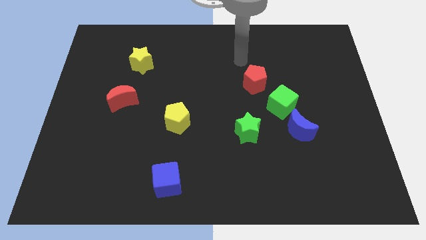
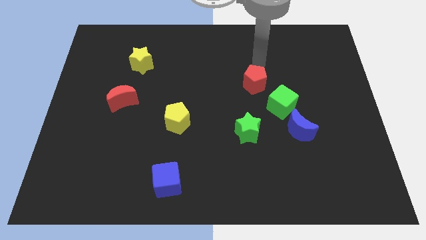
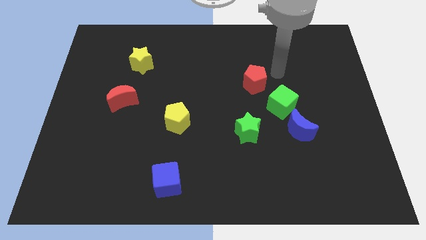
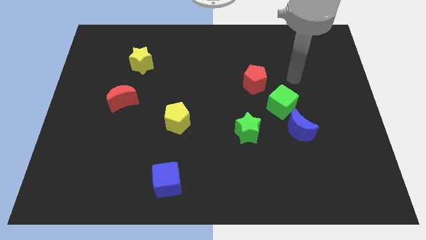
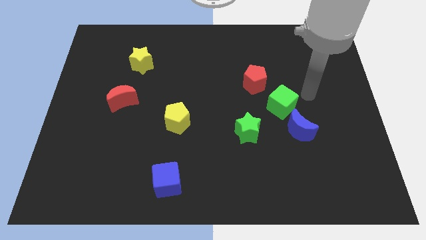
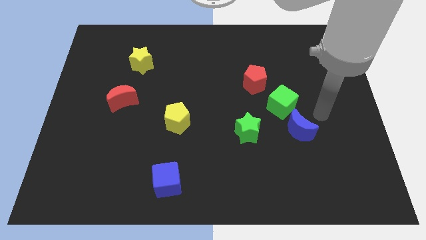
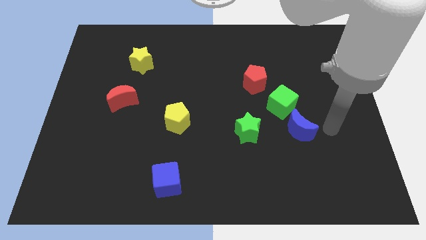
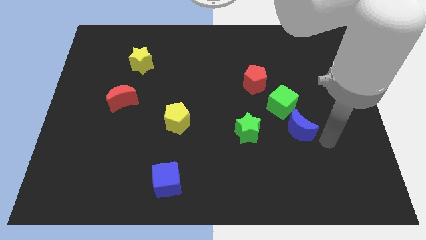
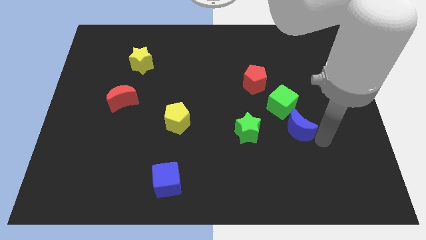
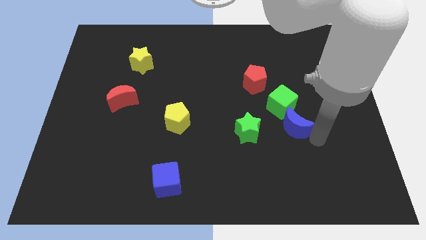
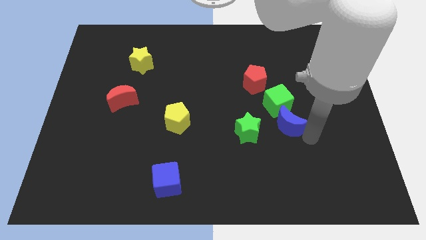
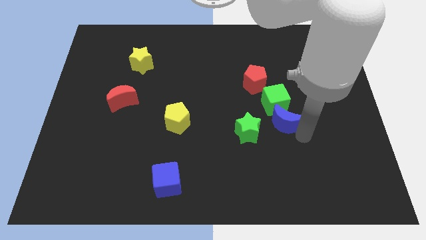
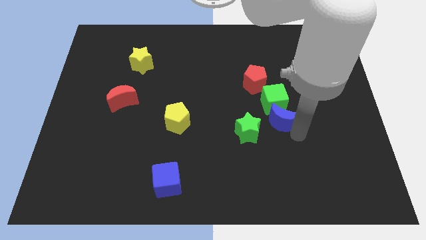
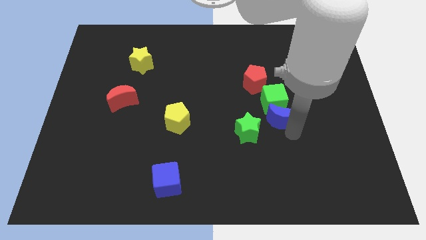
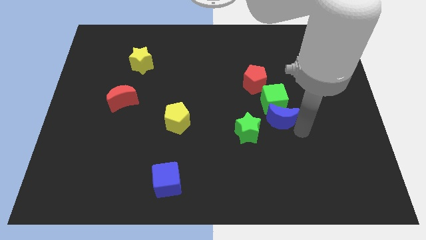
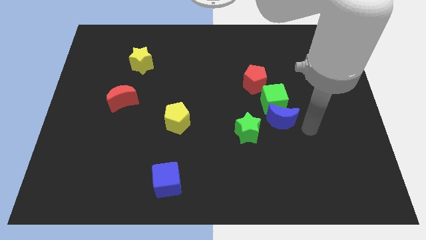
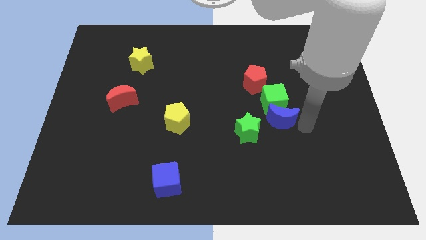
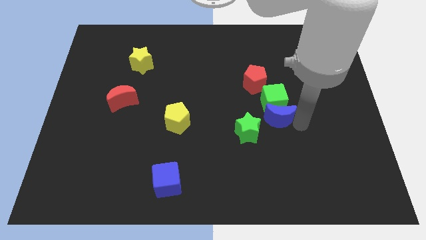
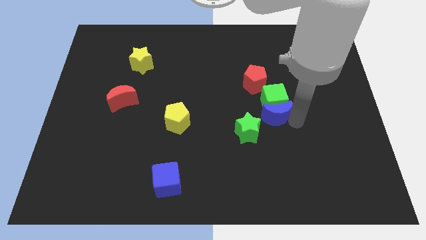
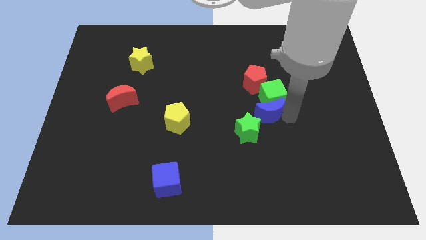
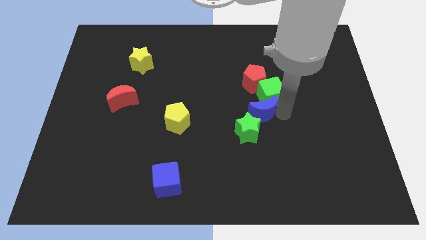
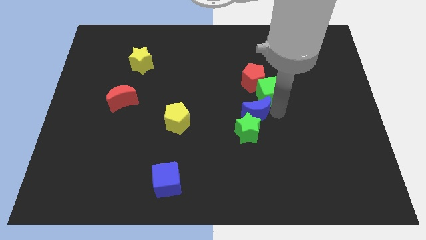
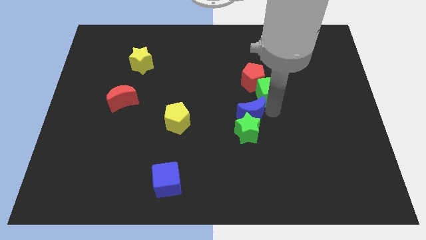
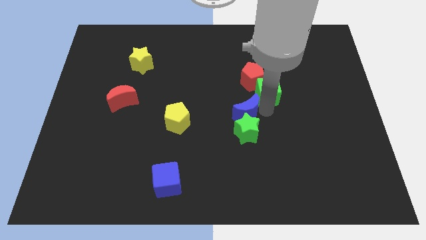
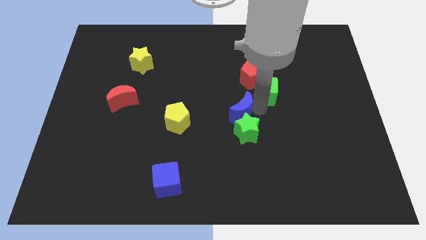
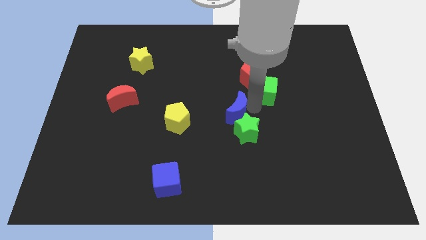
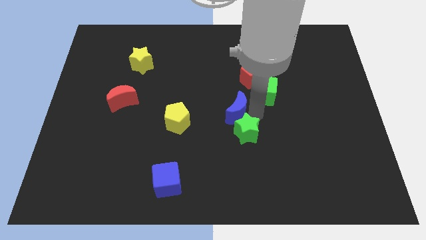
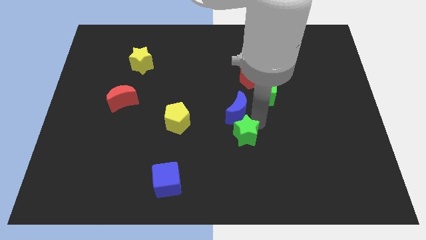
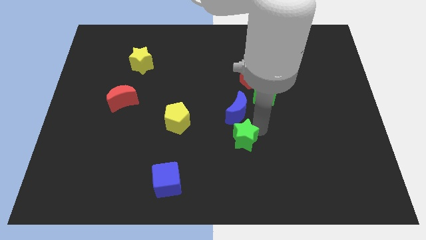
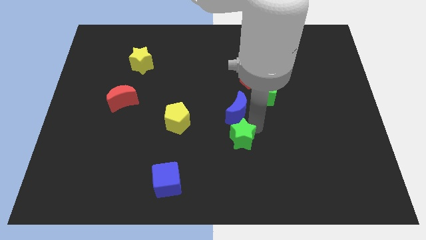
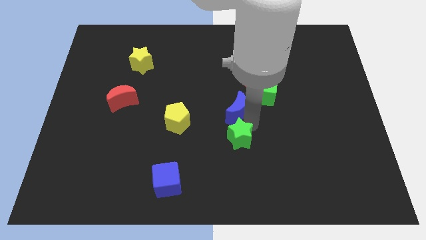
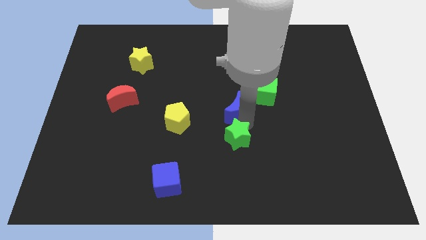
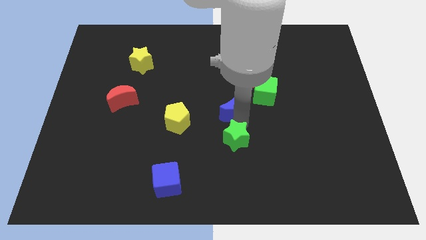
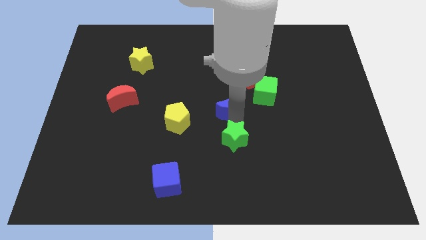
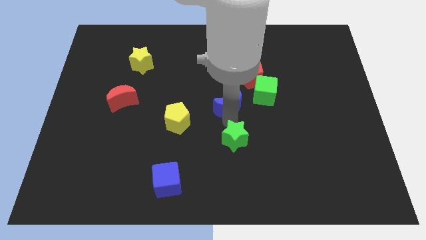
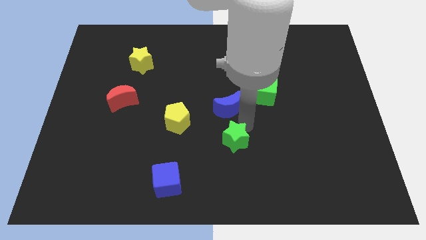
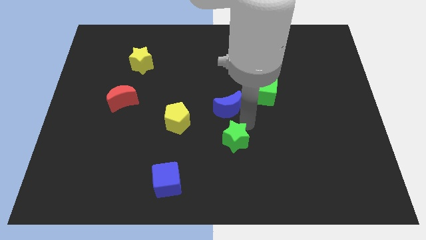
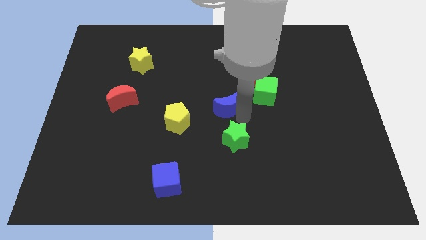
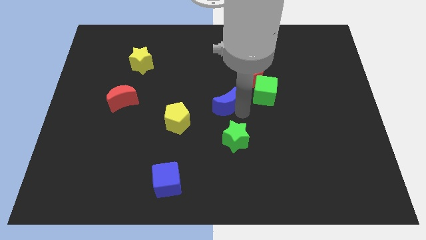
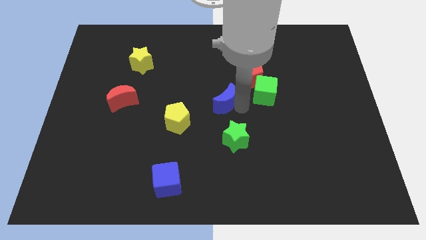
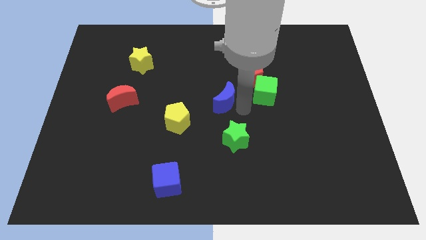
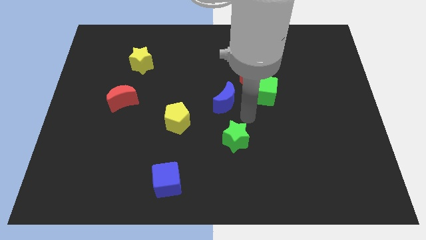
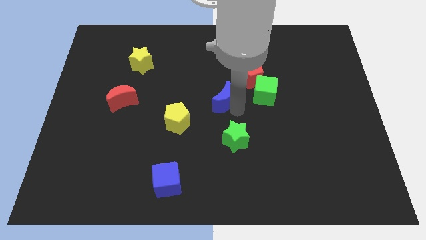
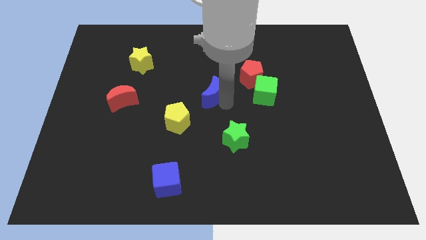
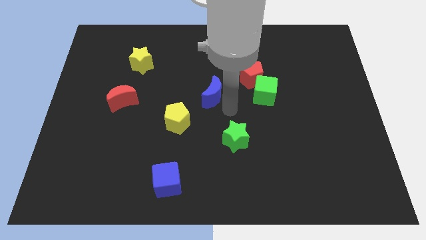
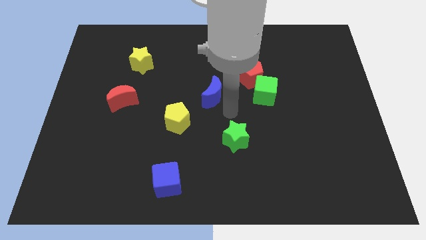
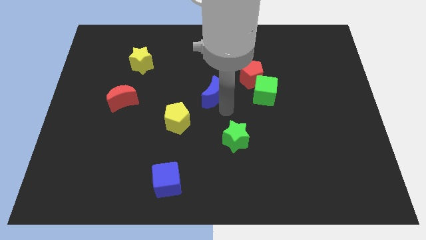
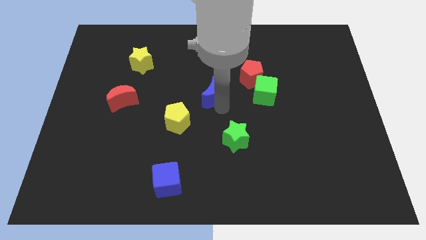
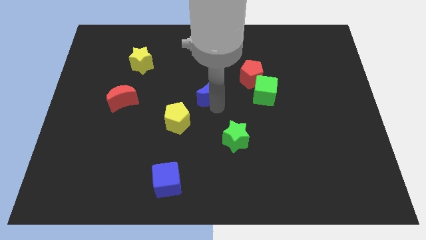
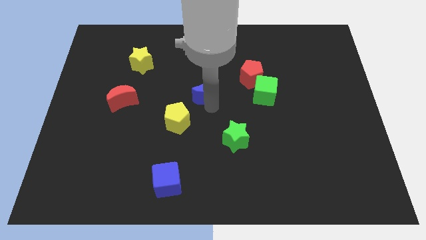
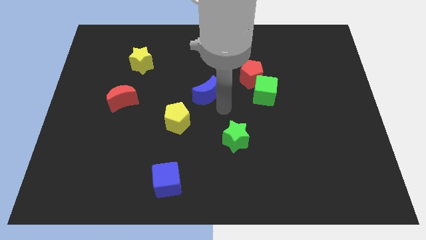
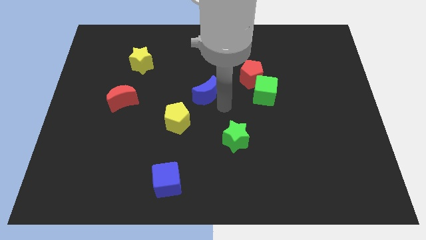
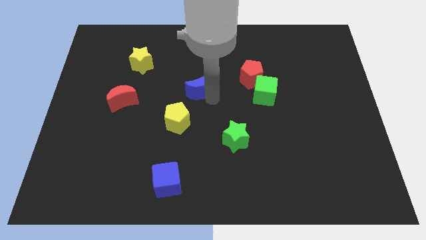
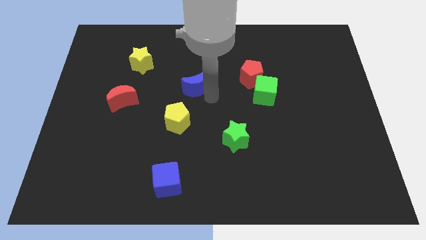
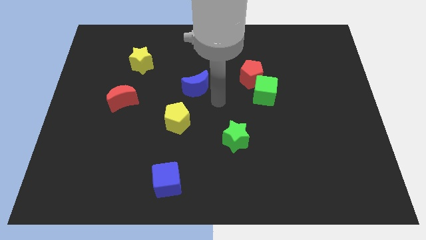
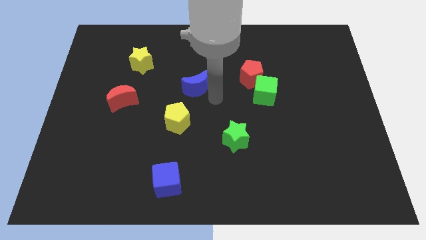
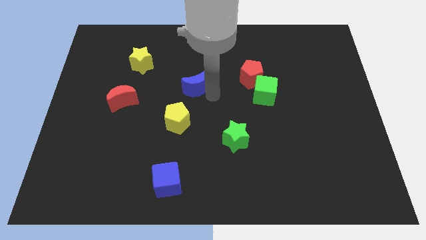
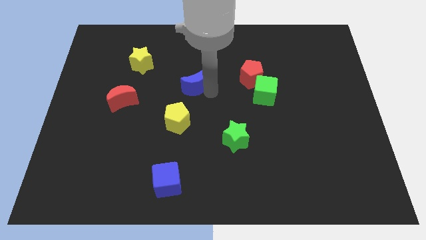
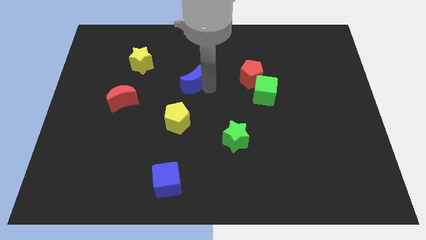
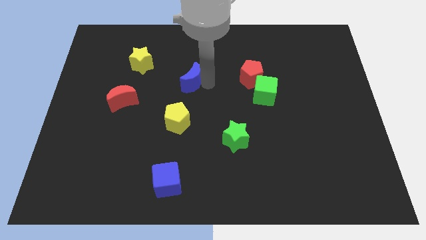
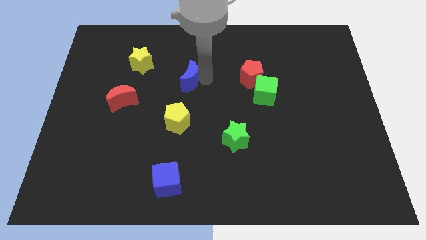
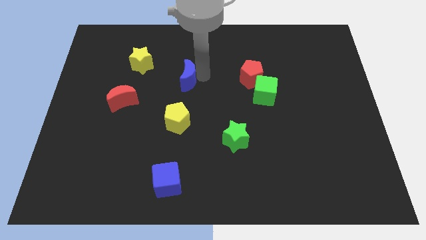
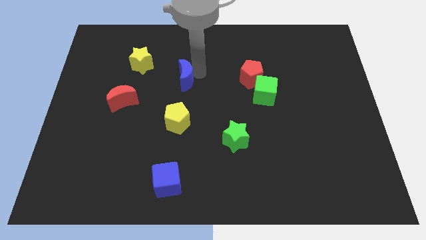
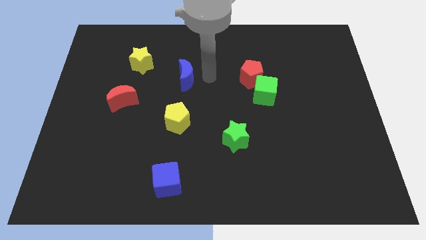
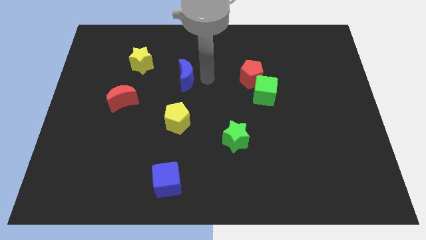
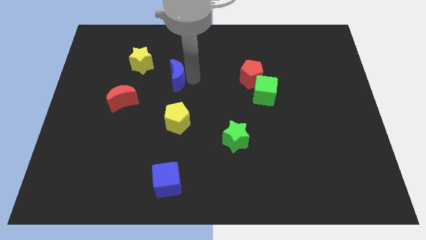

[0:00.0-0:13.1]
slide the blue moon diagonally down and to the right of the yellow star

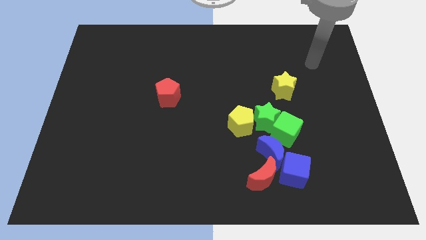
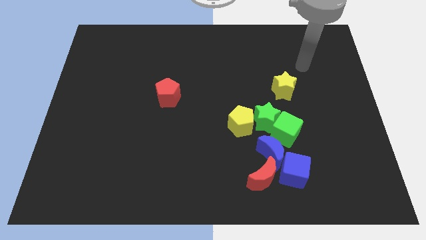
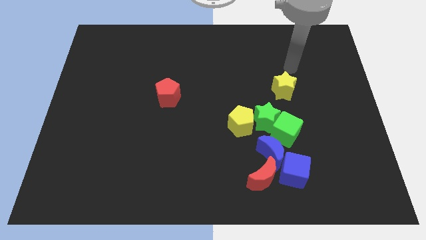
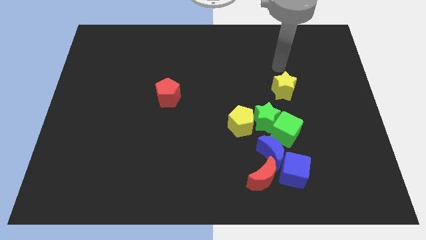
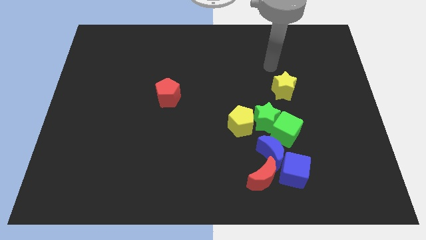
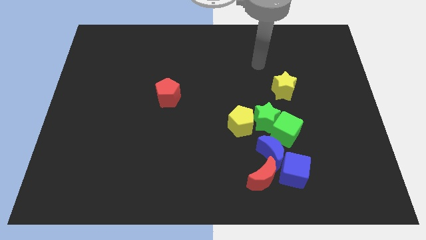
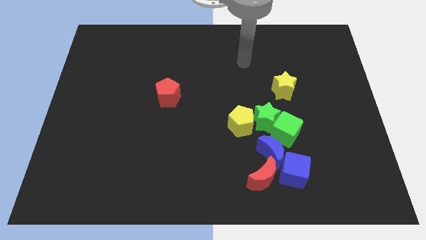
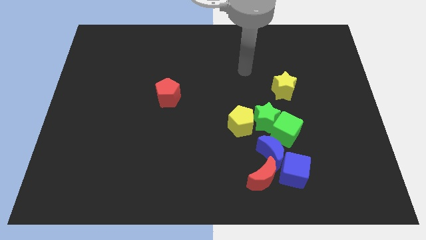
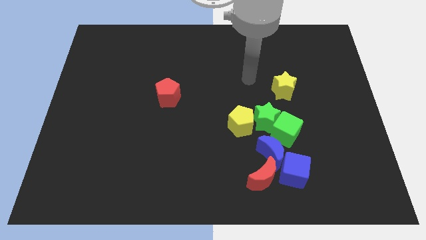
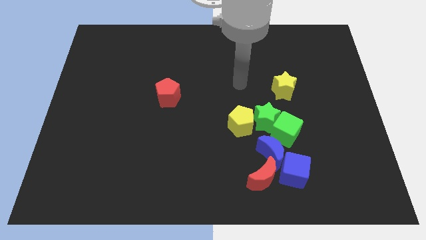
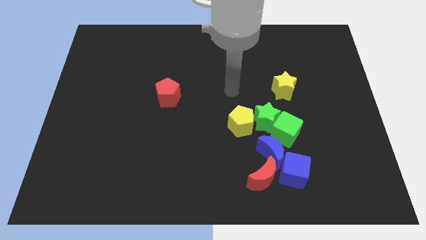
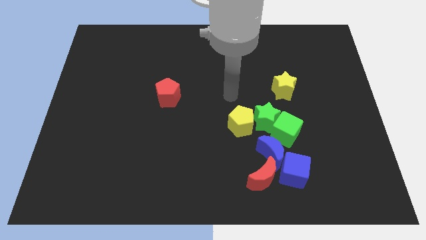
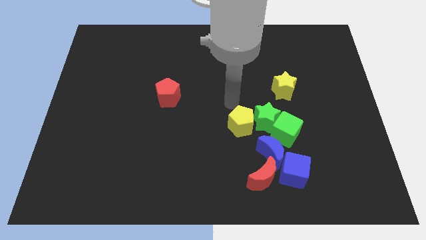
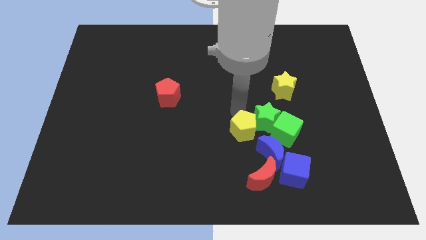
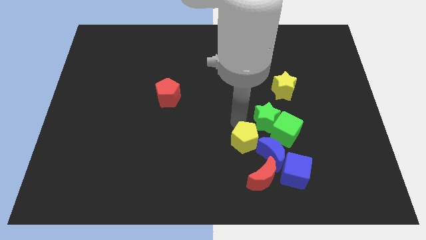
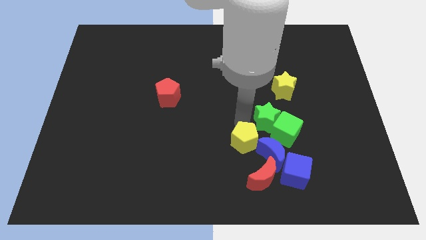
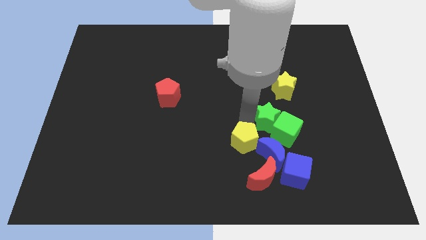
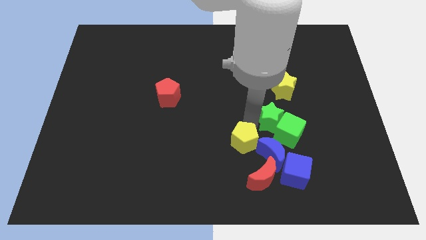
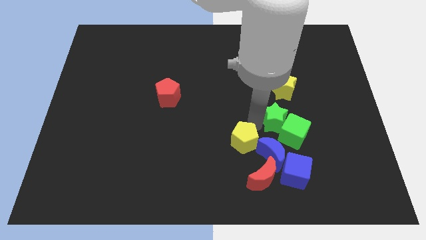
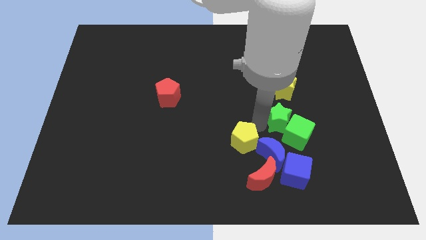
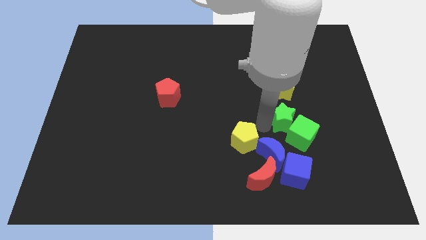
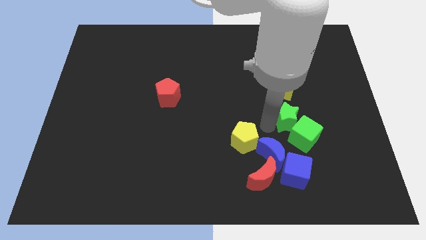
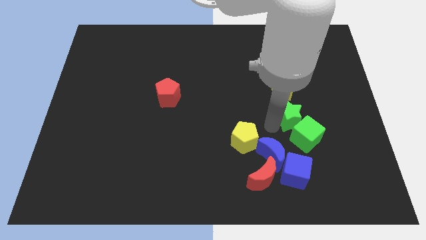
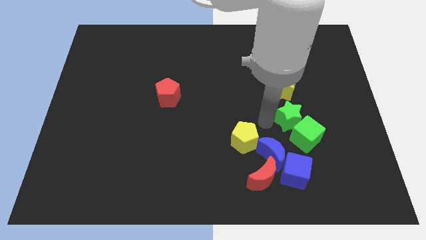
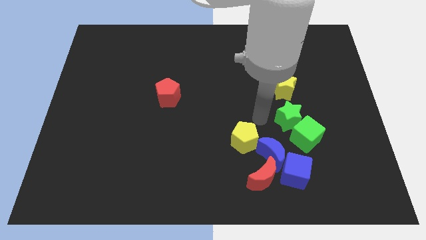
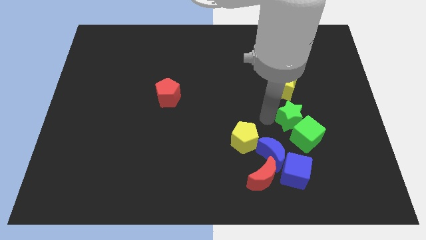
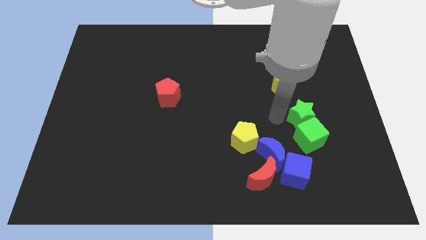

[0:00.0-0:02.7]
push the green star to the top right of the green cube
